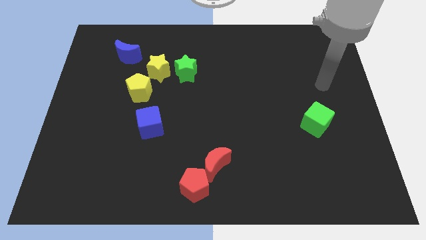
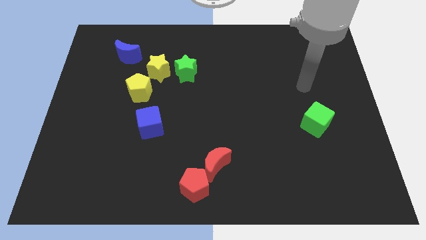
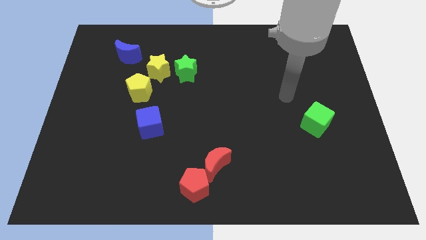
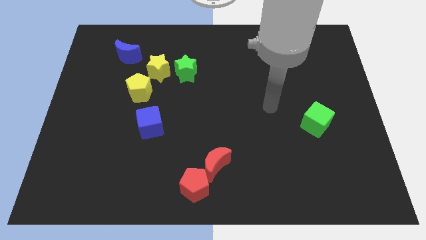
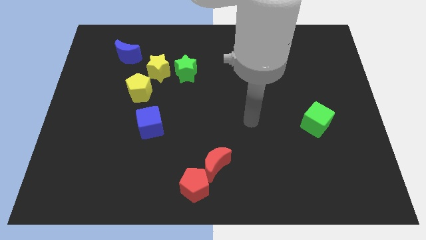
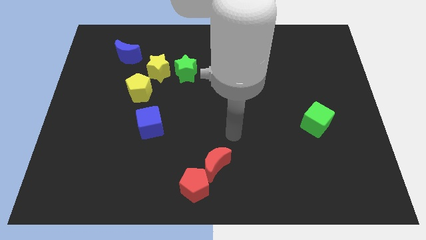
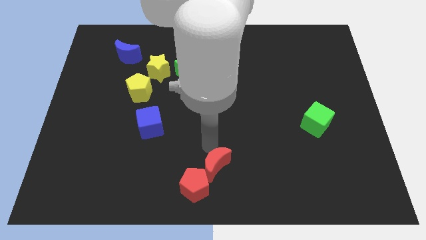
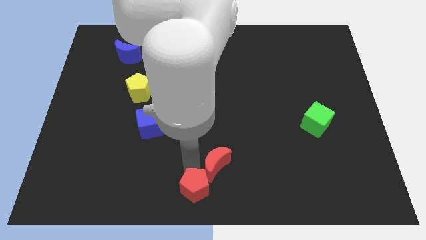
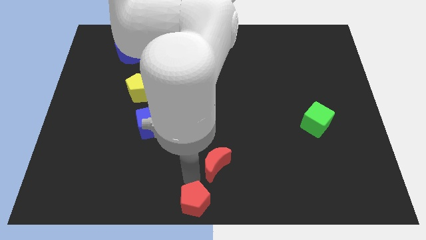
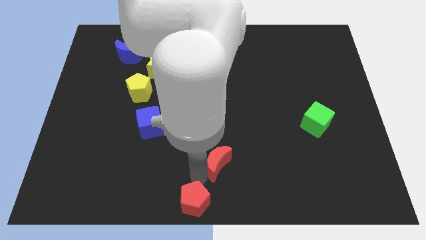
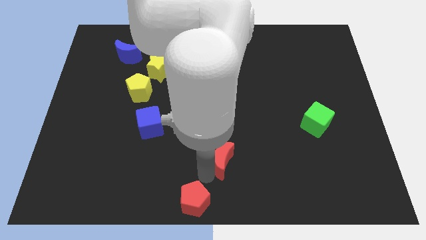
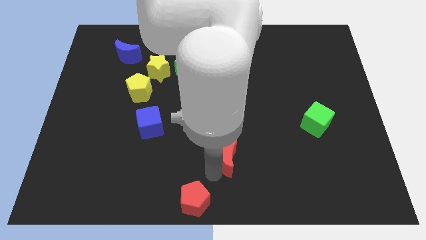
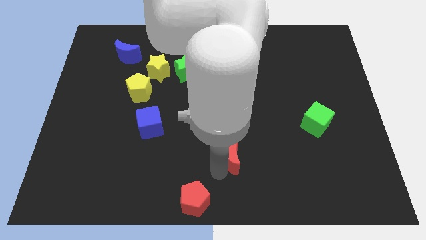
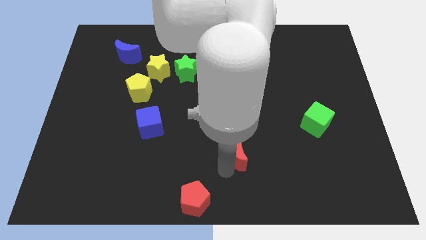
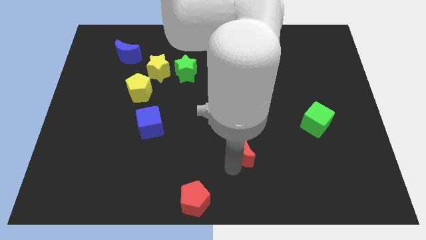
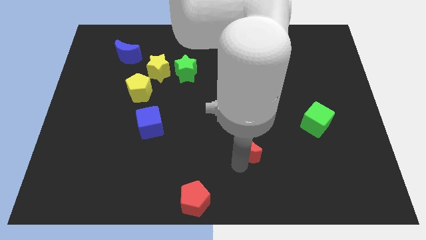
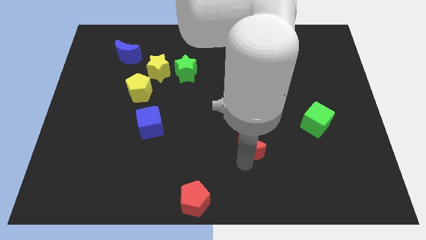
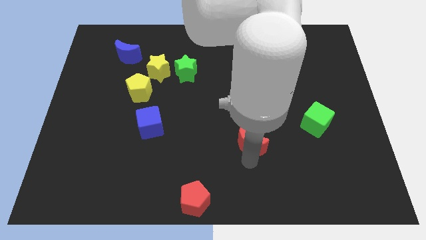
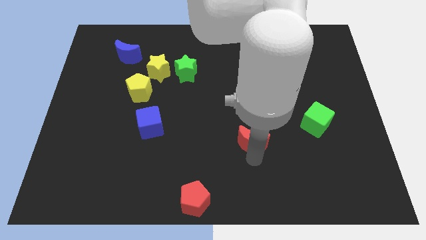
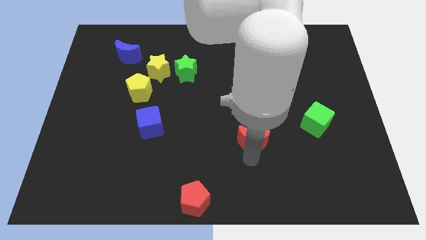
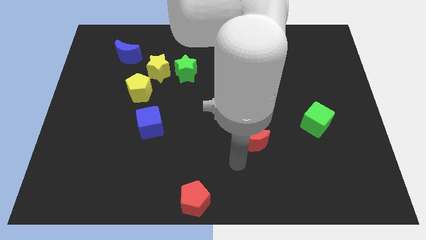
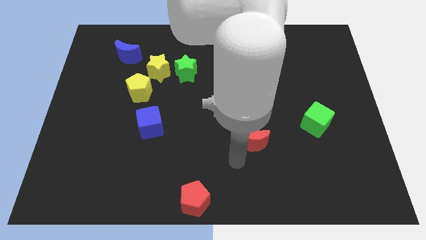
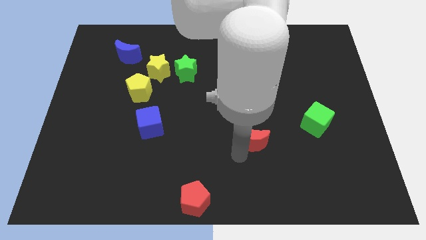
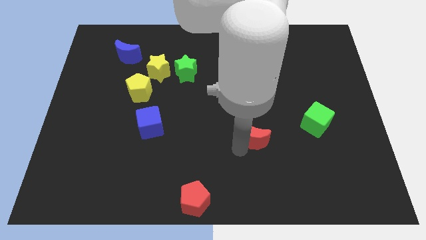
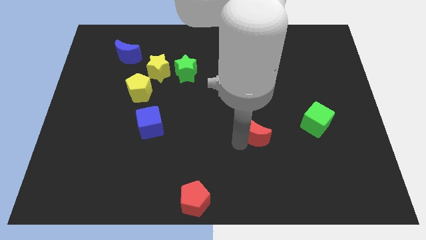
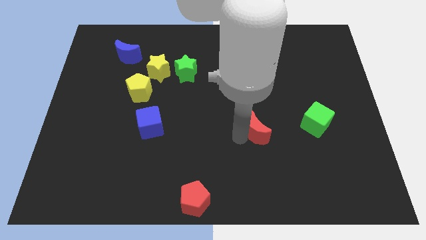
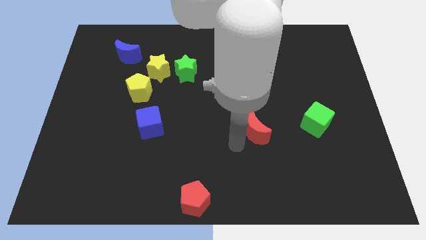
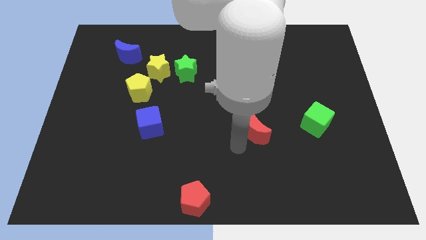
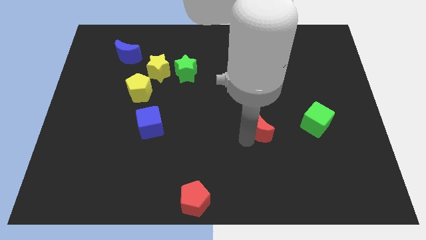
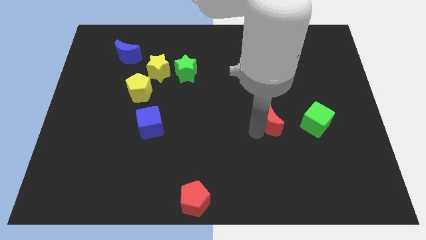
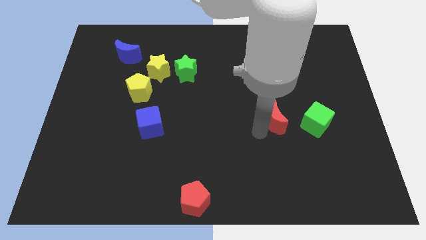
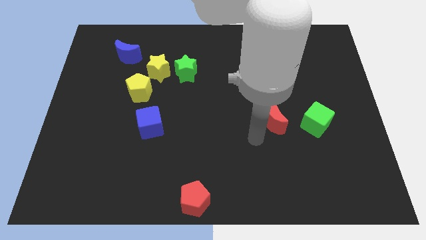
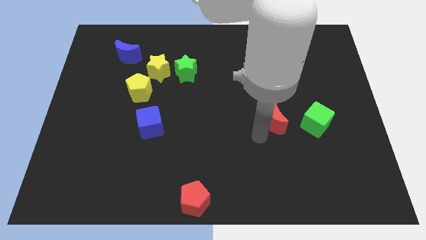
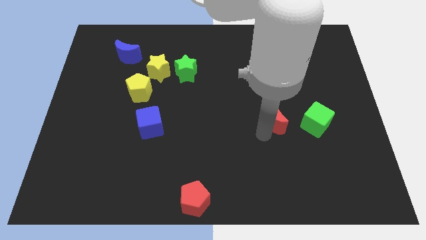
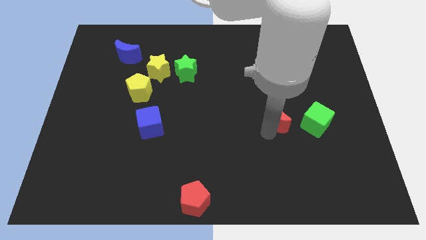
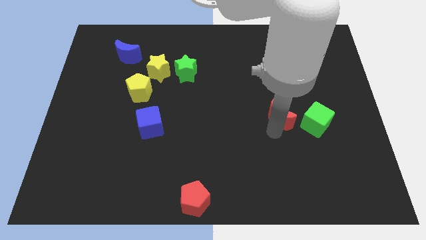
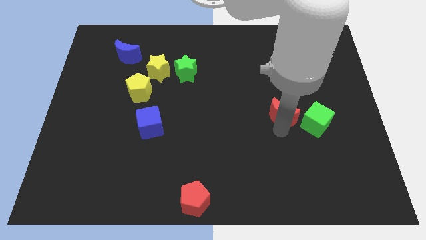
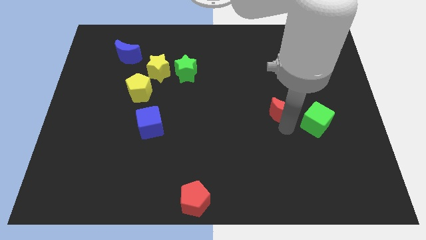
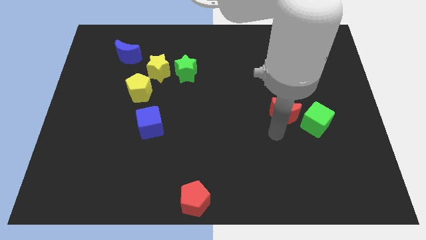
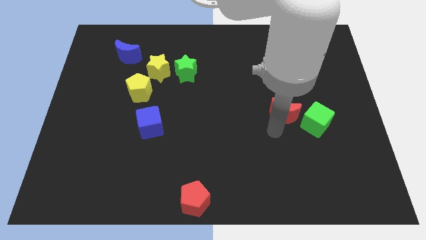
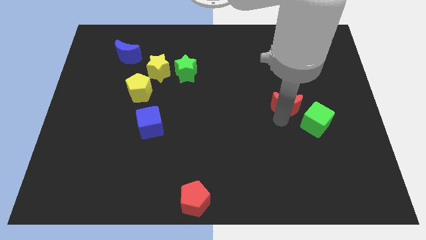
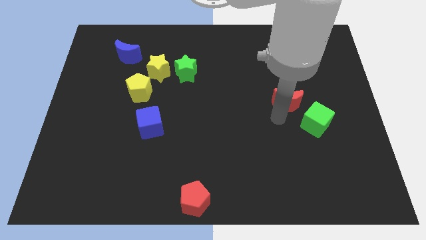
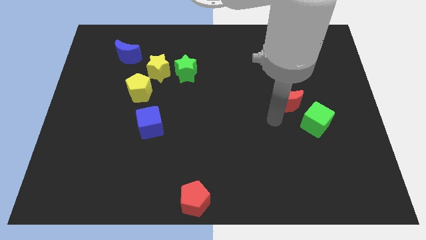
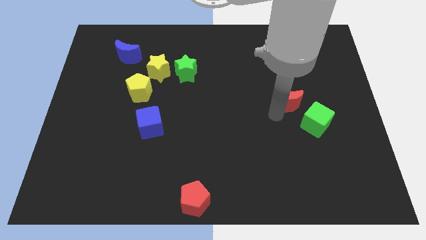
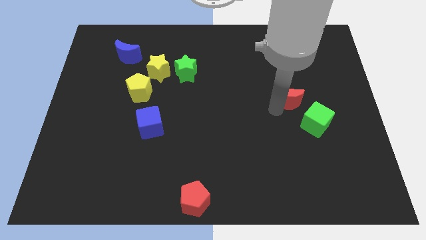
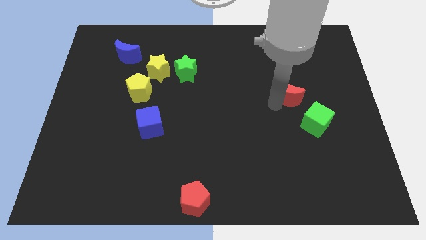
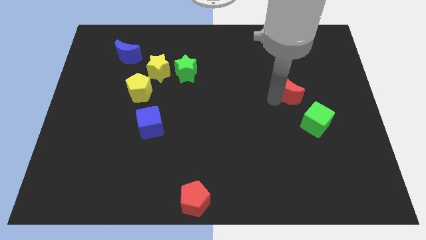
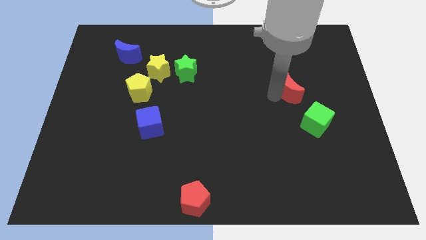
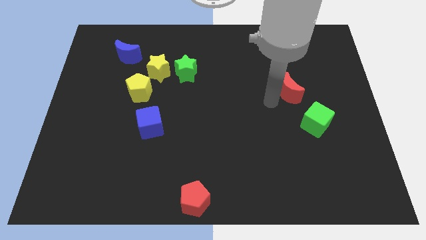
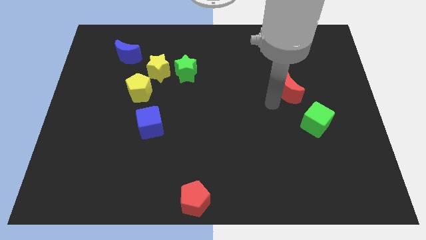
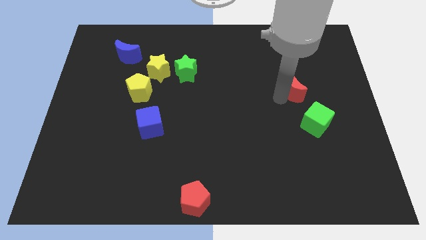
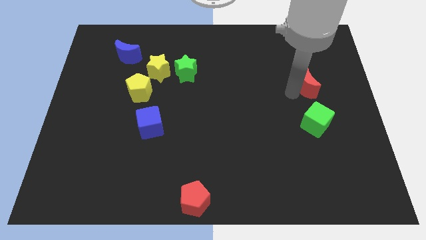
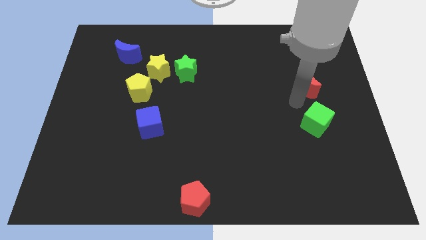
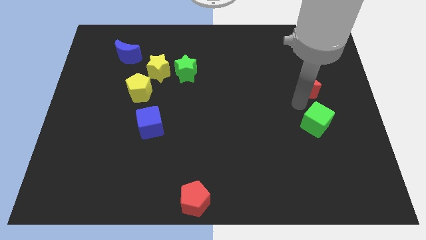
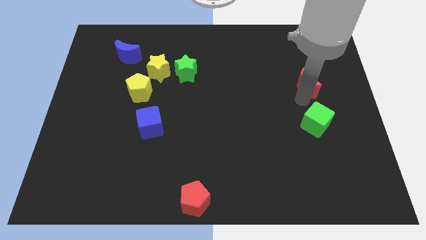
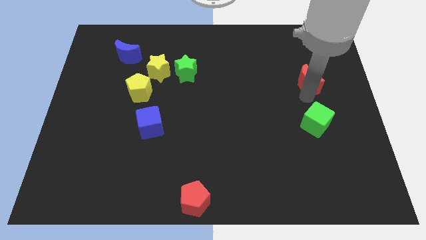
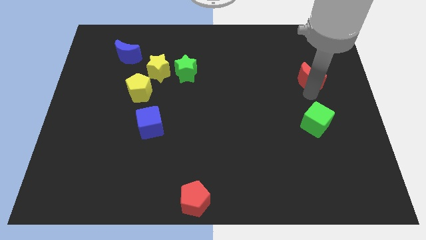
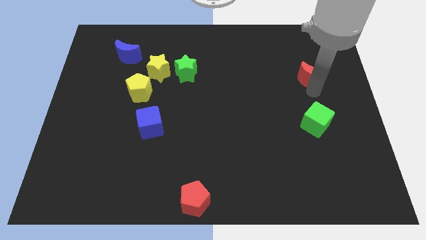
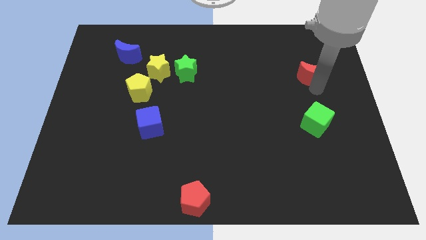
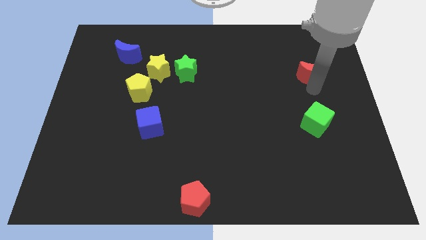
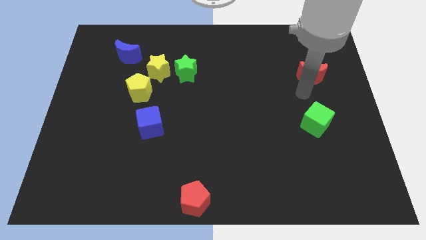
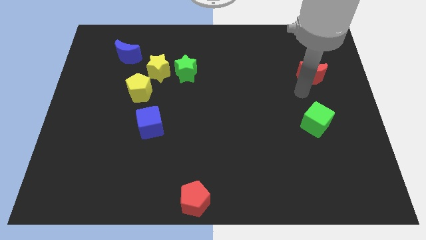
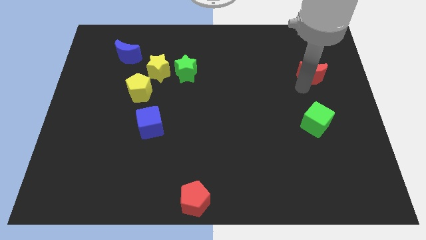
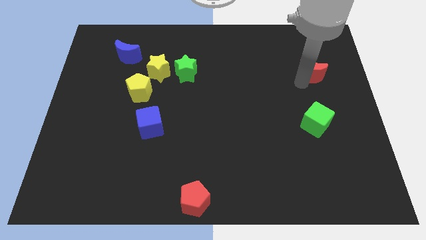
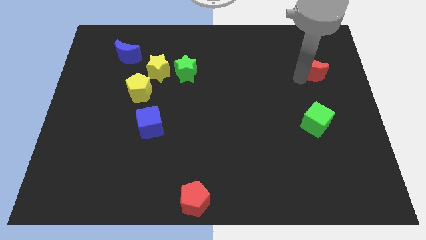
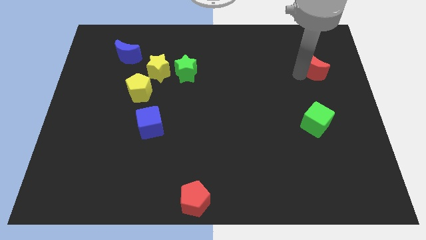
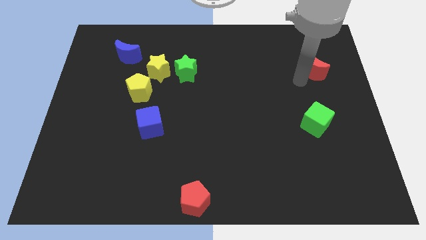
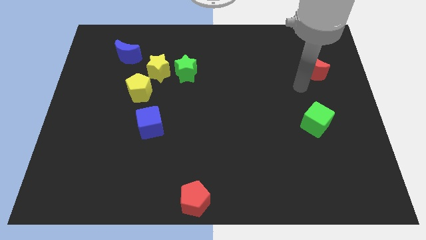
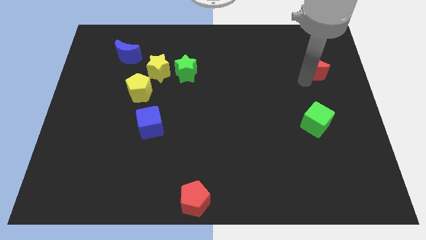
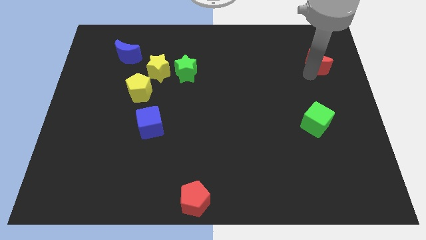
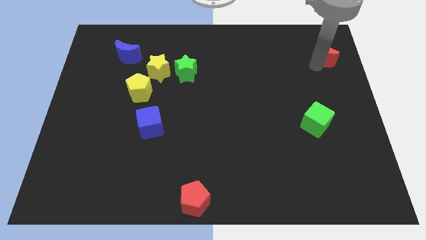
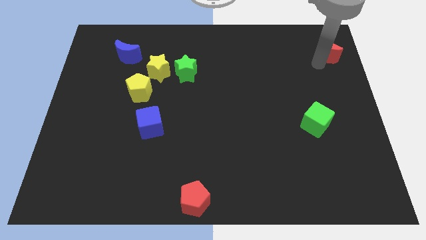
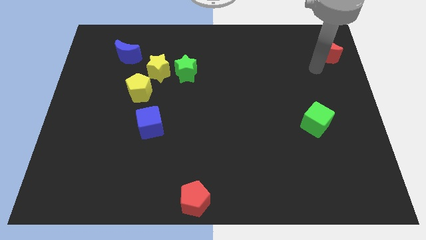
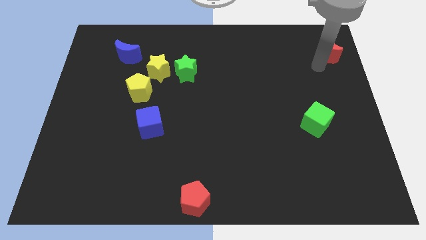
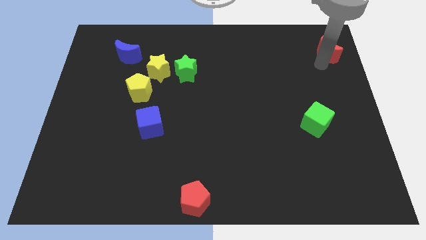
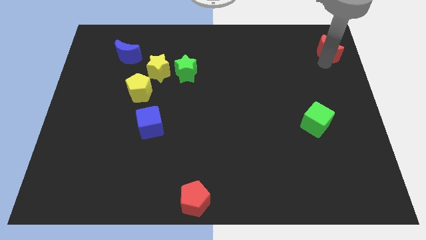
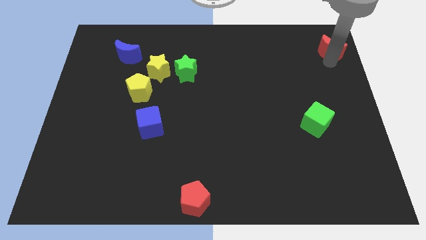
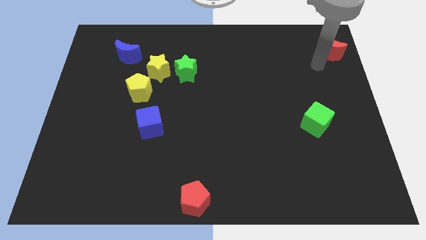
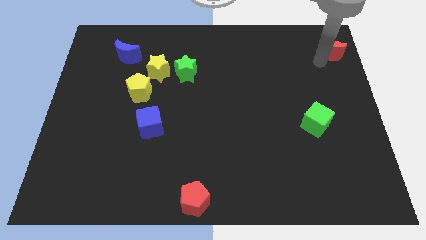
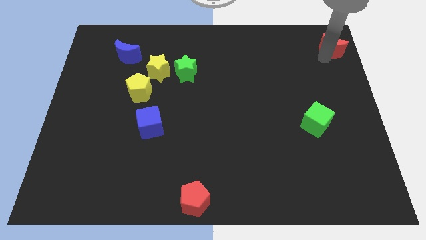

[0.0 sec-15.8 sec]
slide the red moon to the top right
